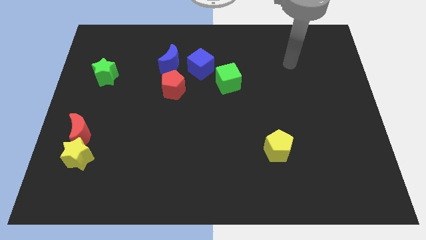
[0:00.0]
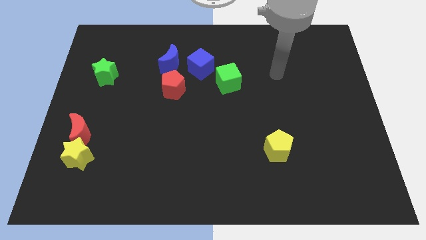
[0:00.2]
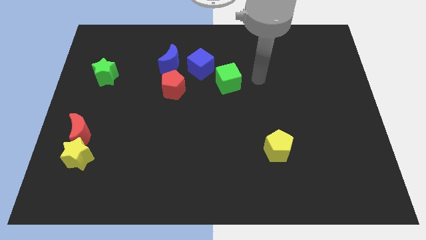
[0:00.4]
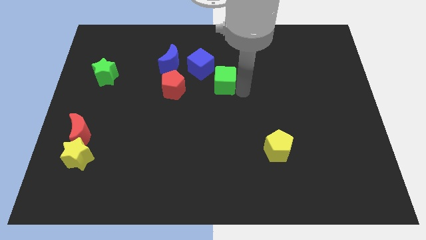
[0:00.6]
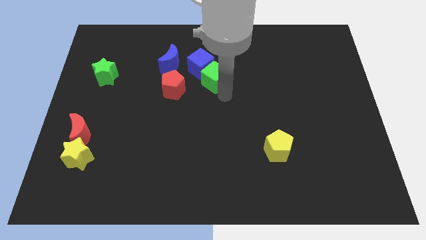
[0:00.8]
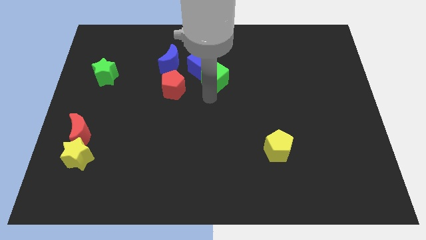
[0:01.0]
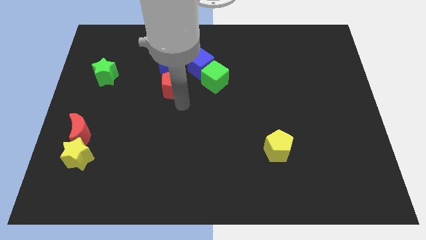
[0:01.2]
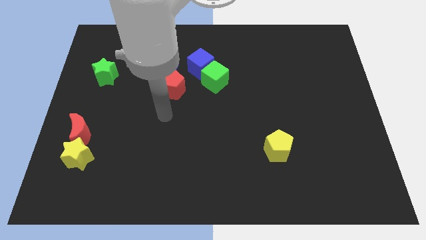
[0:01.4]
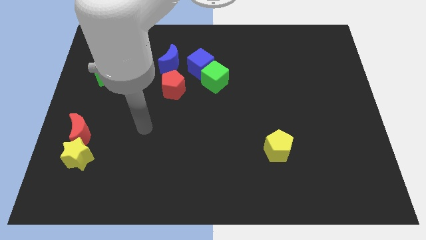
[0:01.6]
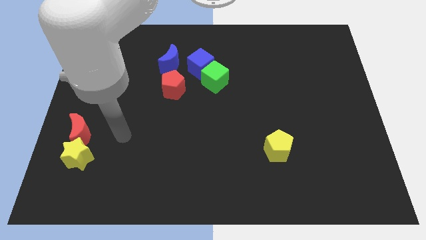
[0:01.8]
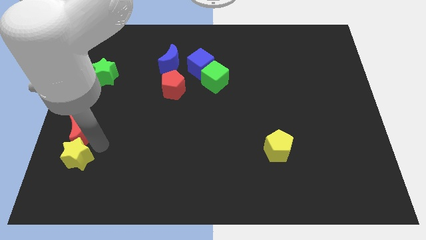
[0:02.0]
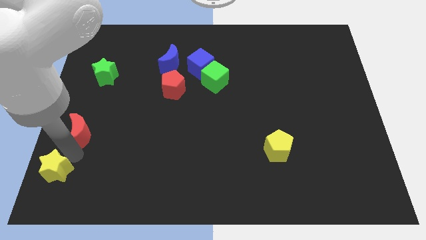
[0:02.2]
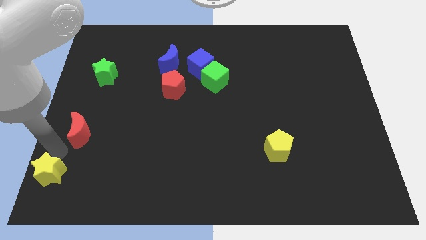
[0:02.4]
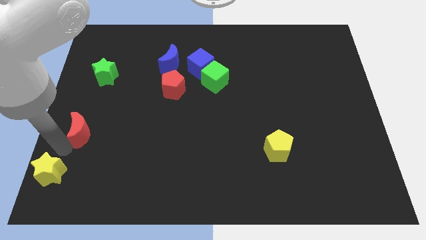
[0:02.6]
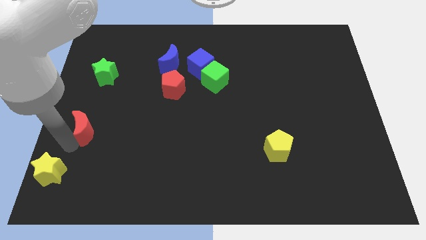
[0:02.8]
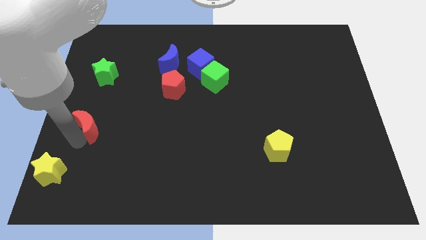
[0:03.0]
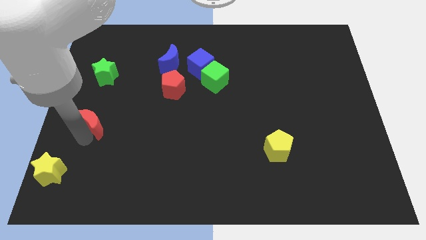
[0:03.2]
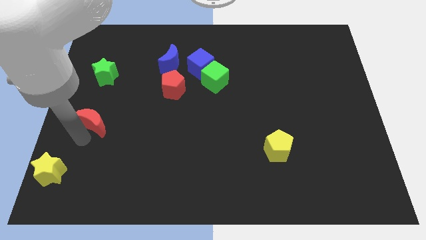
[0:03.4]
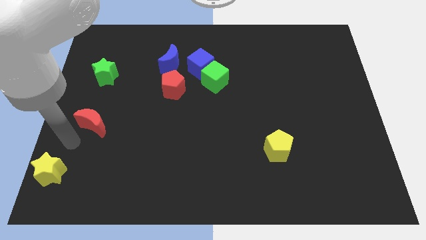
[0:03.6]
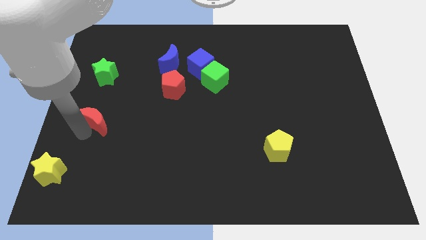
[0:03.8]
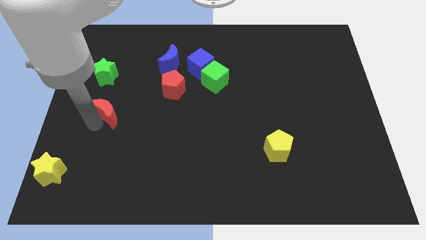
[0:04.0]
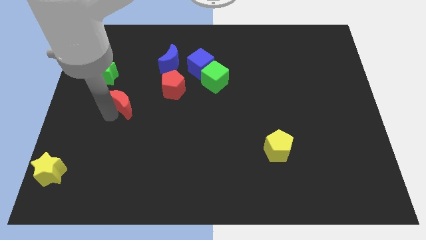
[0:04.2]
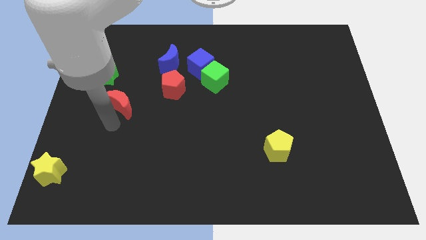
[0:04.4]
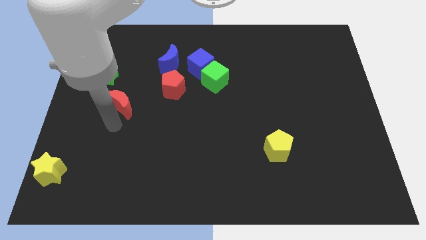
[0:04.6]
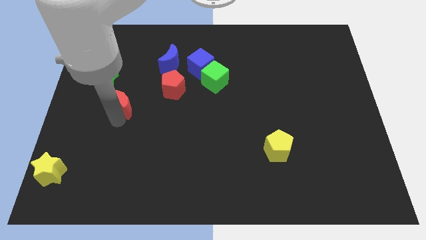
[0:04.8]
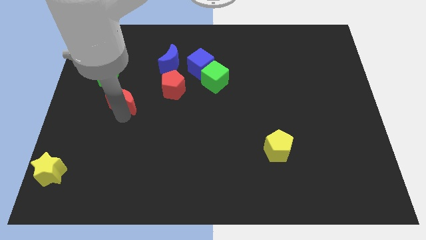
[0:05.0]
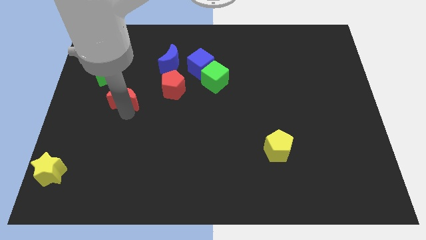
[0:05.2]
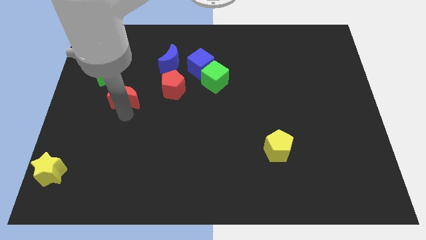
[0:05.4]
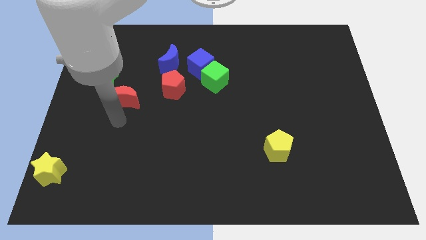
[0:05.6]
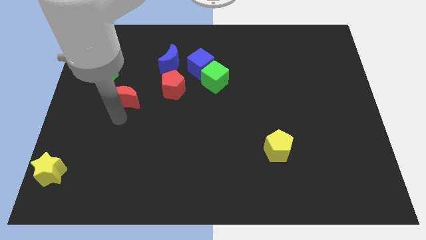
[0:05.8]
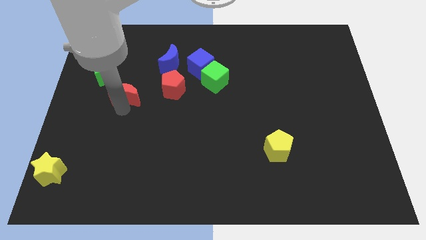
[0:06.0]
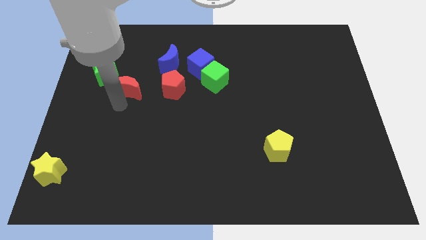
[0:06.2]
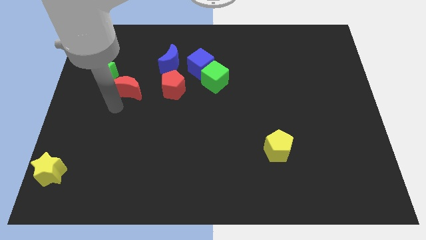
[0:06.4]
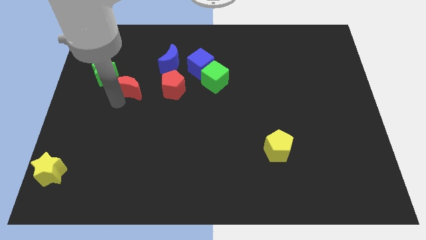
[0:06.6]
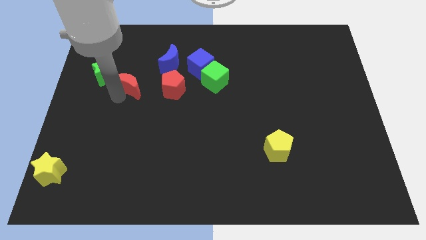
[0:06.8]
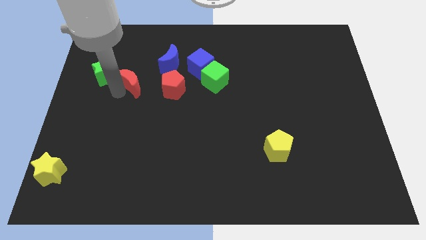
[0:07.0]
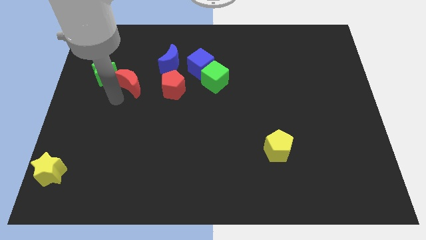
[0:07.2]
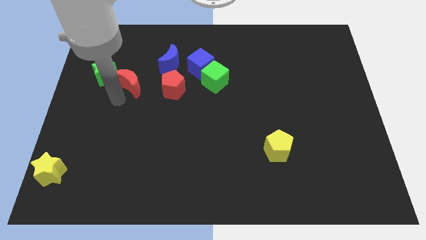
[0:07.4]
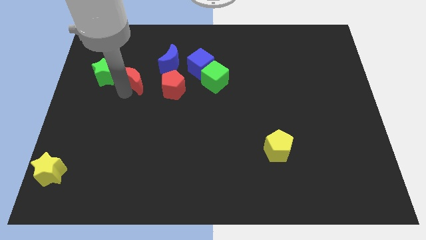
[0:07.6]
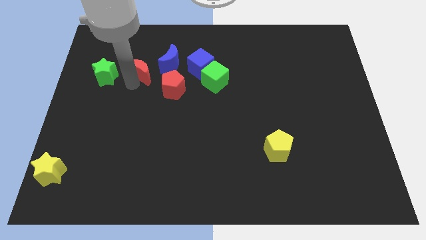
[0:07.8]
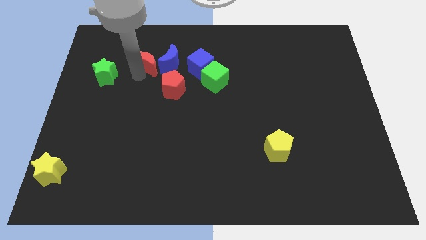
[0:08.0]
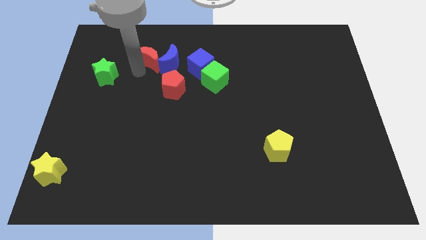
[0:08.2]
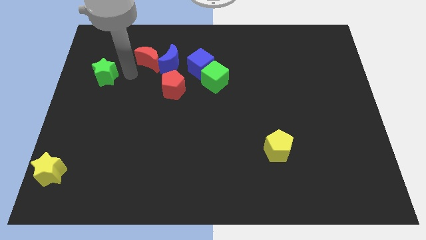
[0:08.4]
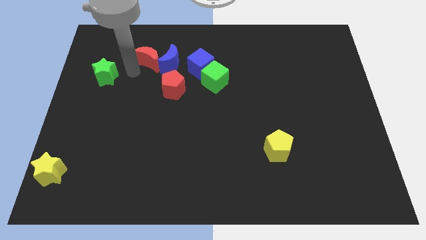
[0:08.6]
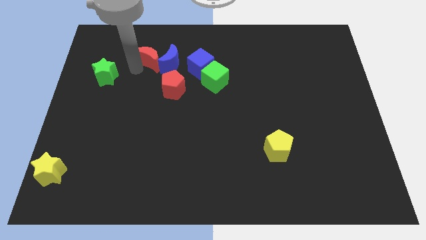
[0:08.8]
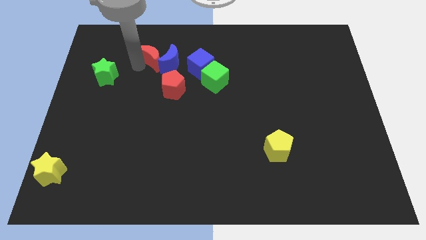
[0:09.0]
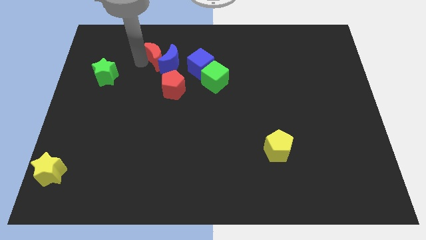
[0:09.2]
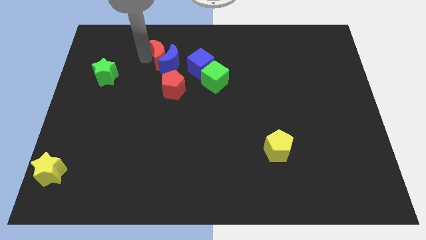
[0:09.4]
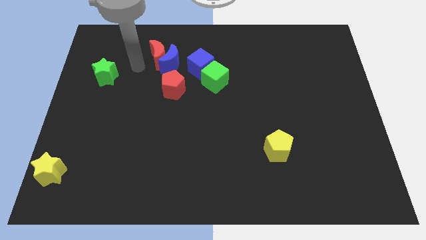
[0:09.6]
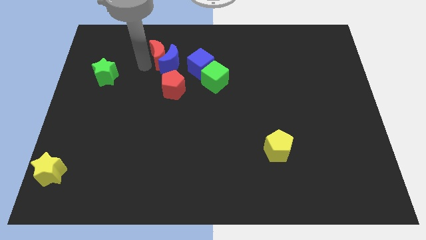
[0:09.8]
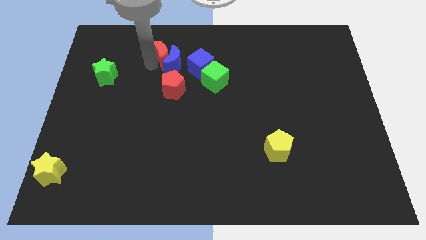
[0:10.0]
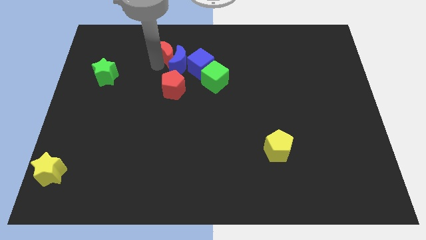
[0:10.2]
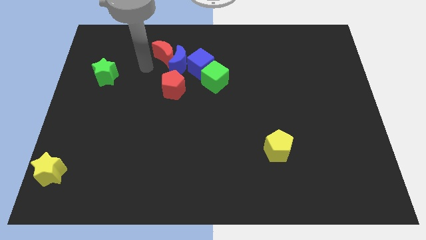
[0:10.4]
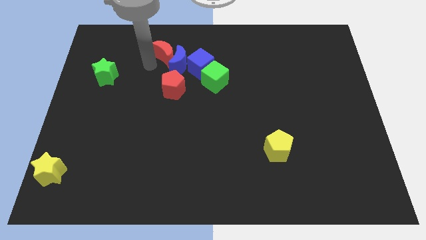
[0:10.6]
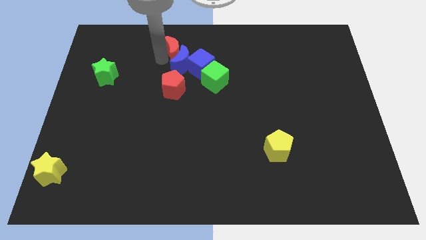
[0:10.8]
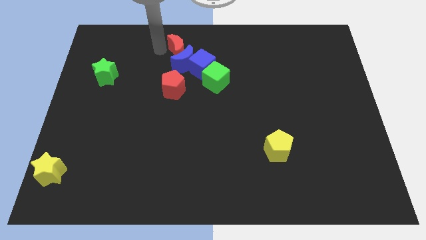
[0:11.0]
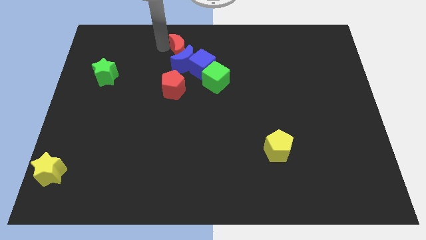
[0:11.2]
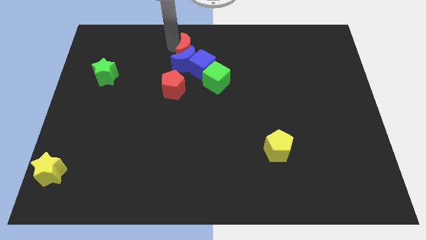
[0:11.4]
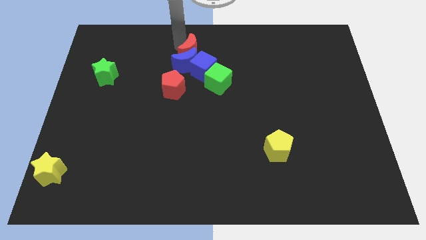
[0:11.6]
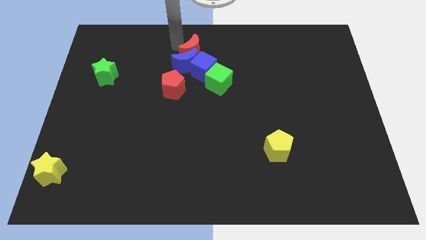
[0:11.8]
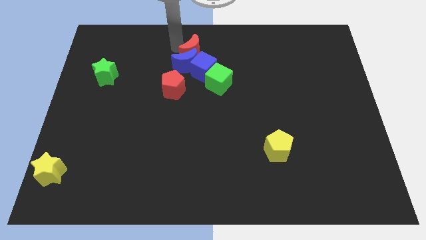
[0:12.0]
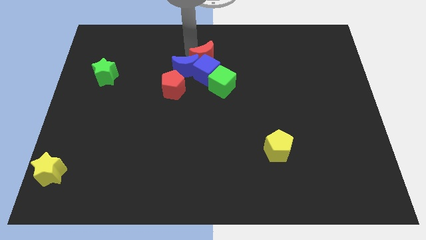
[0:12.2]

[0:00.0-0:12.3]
slide the red moon to the right side of the blue moon

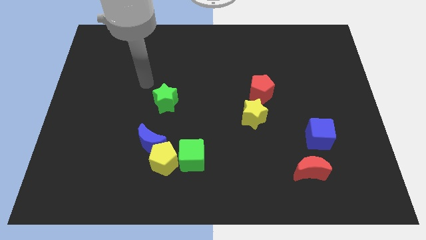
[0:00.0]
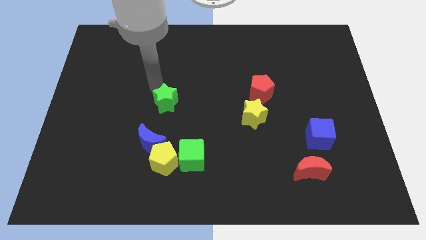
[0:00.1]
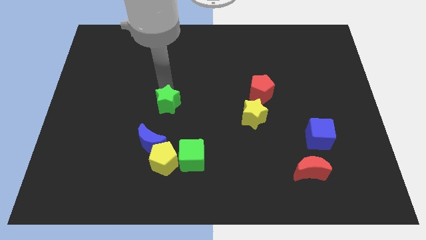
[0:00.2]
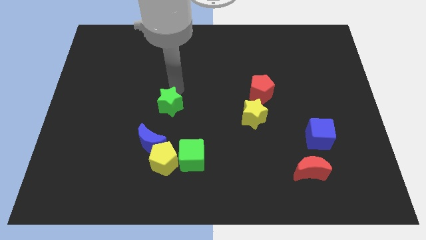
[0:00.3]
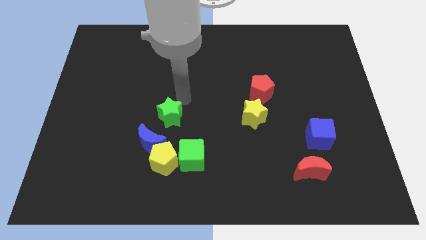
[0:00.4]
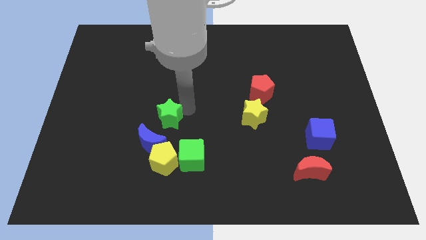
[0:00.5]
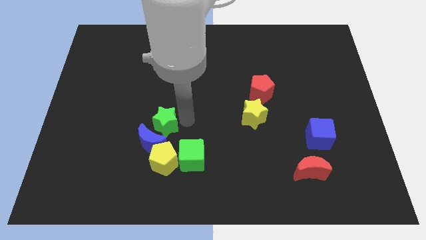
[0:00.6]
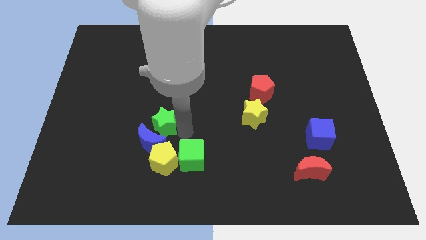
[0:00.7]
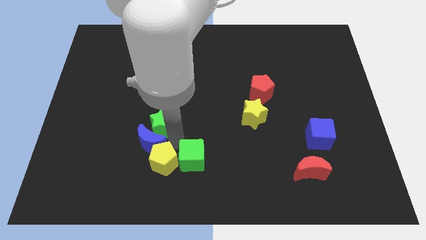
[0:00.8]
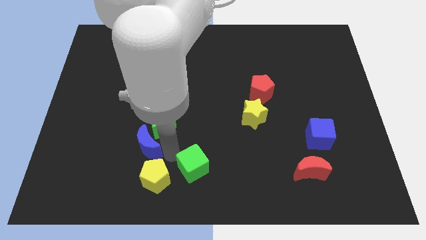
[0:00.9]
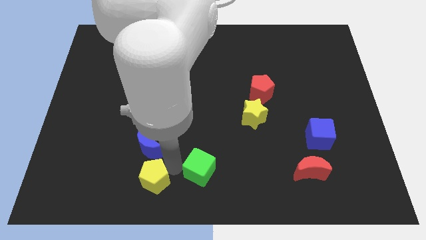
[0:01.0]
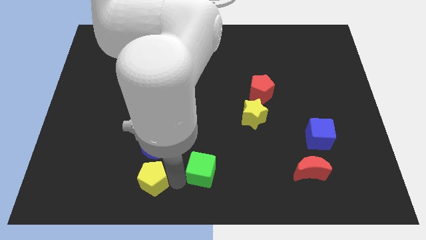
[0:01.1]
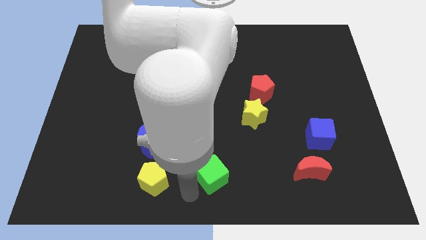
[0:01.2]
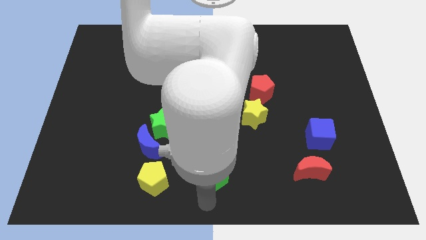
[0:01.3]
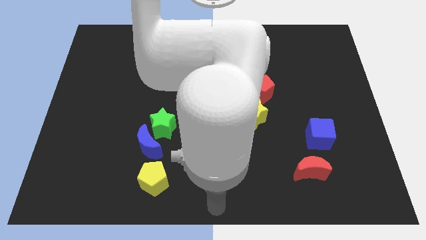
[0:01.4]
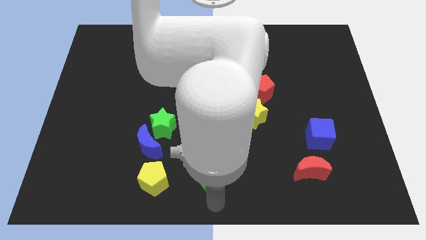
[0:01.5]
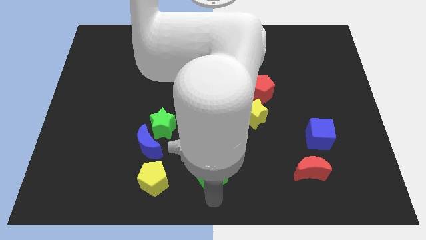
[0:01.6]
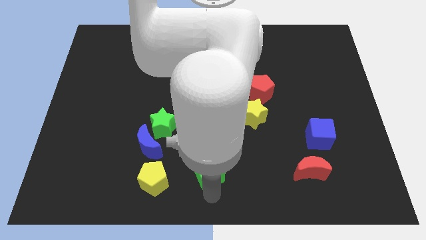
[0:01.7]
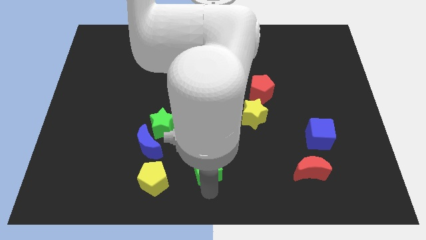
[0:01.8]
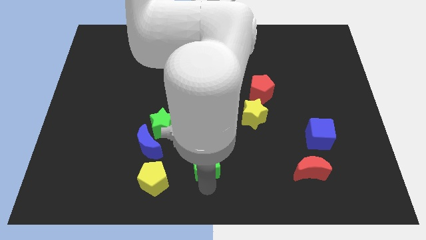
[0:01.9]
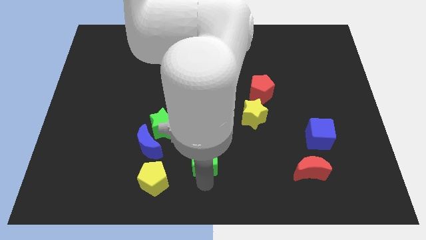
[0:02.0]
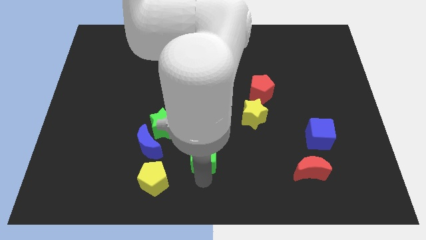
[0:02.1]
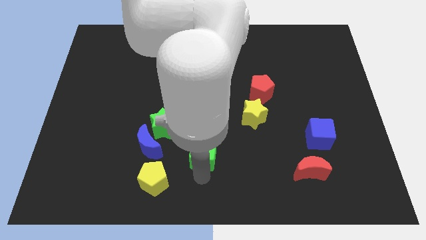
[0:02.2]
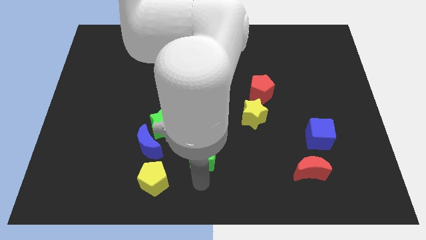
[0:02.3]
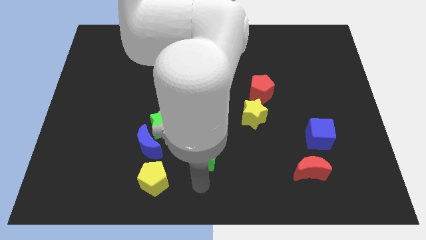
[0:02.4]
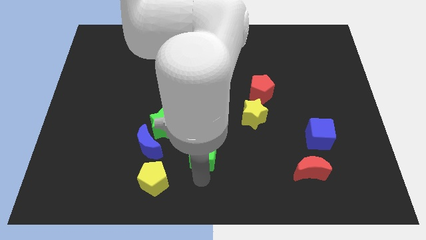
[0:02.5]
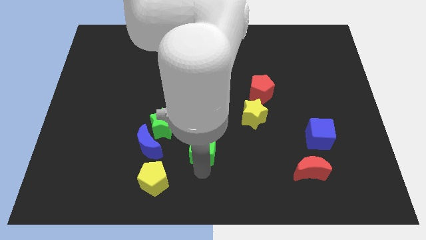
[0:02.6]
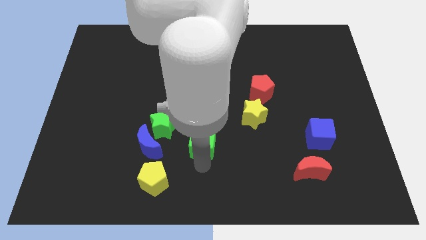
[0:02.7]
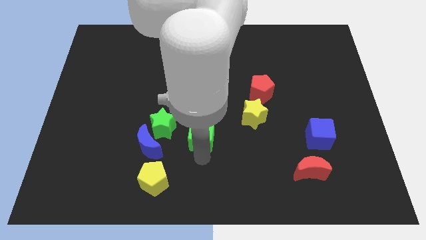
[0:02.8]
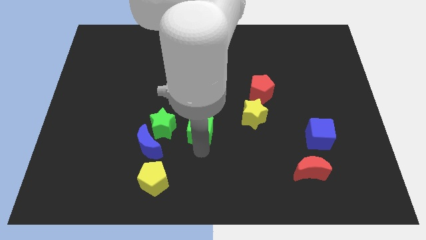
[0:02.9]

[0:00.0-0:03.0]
put the green cube to the left of the yellow star
